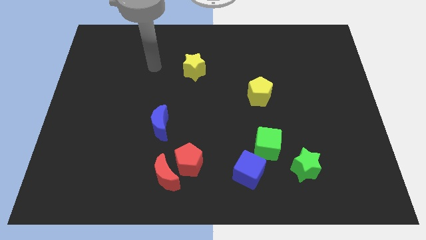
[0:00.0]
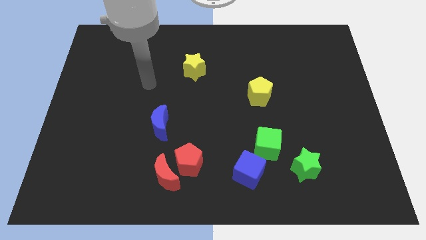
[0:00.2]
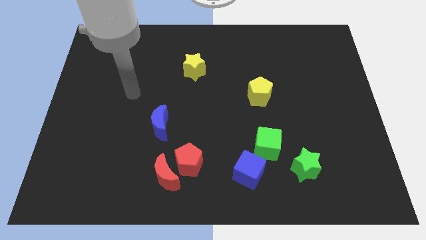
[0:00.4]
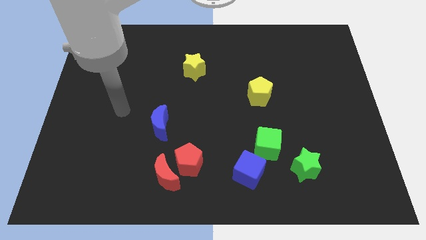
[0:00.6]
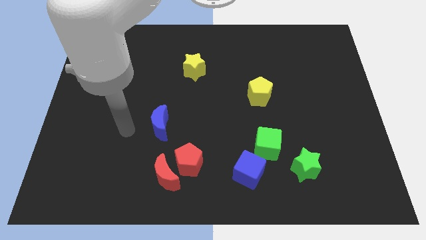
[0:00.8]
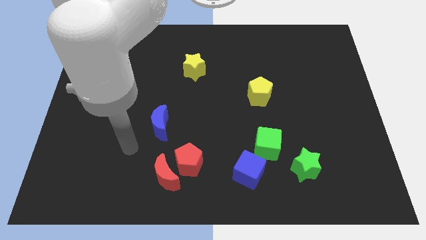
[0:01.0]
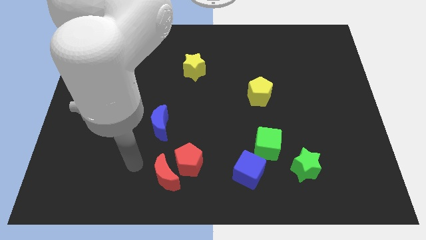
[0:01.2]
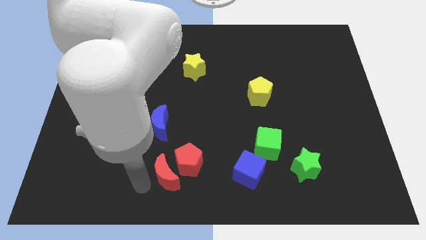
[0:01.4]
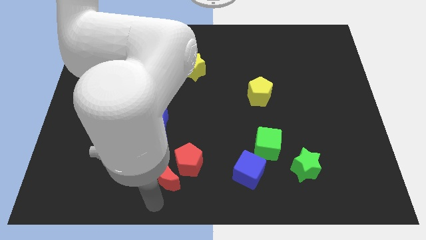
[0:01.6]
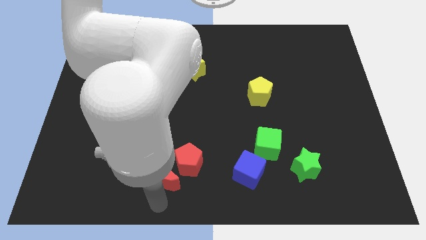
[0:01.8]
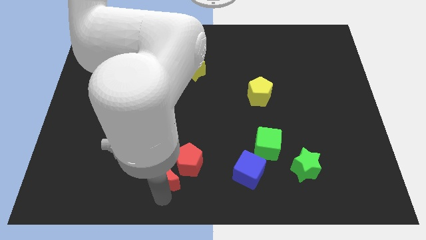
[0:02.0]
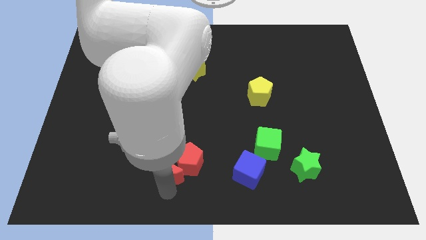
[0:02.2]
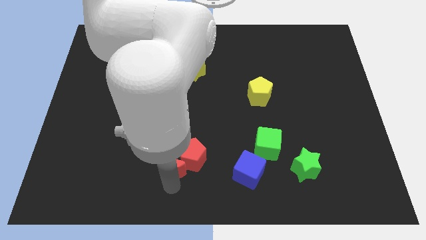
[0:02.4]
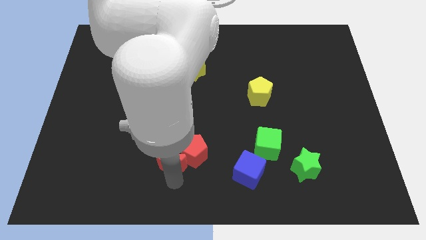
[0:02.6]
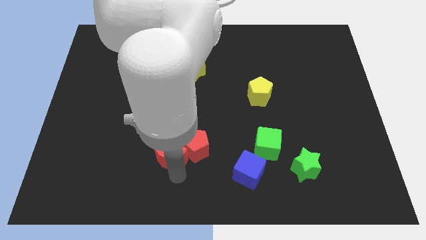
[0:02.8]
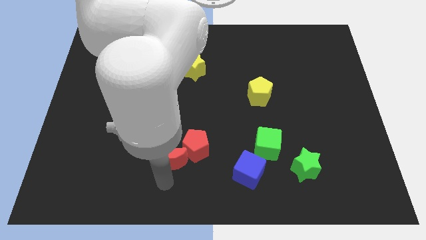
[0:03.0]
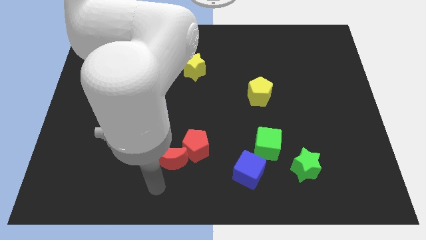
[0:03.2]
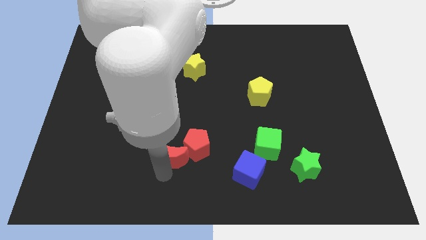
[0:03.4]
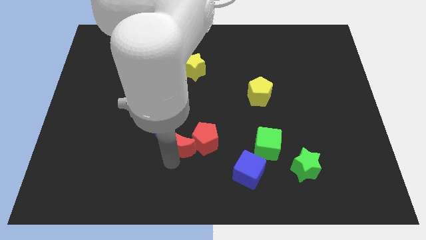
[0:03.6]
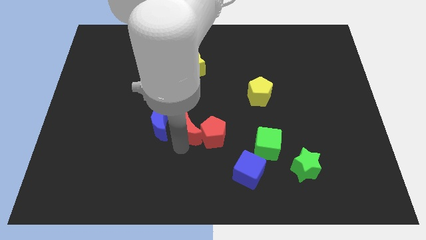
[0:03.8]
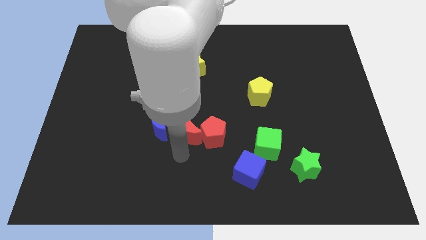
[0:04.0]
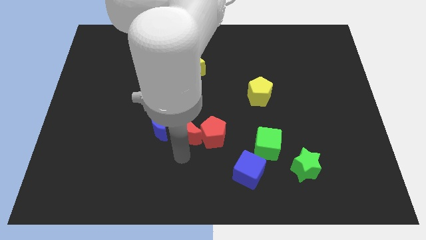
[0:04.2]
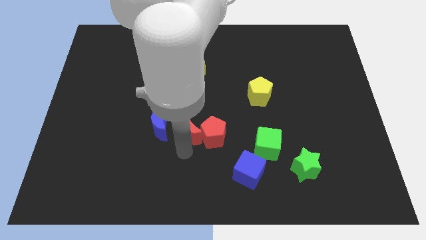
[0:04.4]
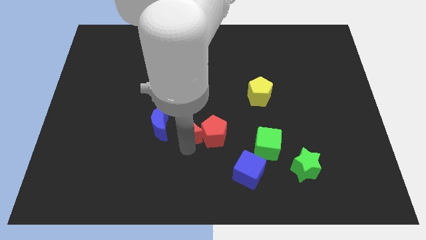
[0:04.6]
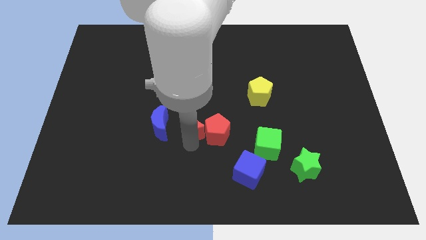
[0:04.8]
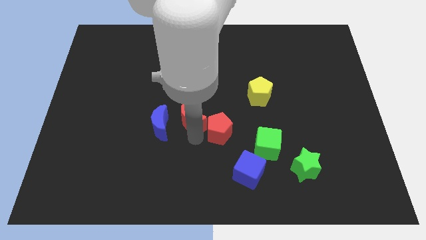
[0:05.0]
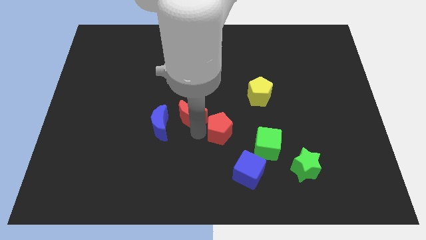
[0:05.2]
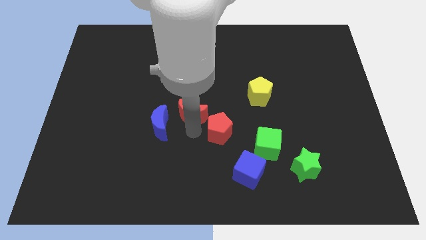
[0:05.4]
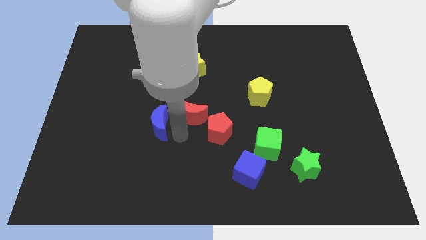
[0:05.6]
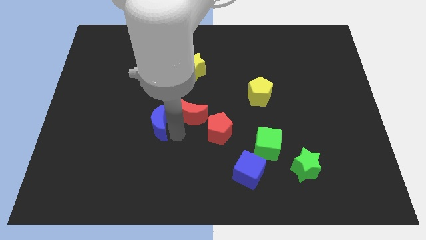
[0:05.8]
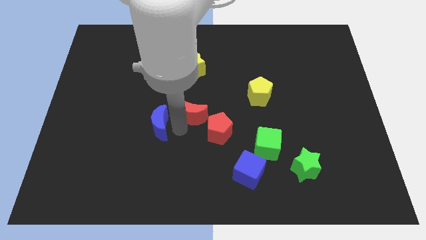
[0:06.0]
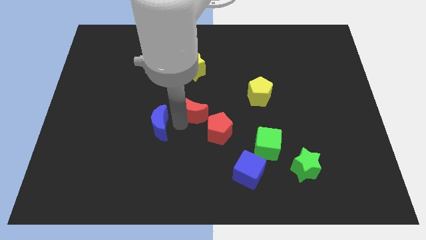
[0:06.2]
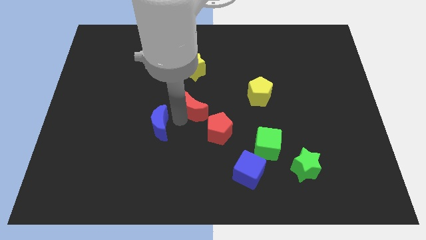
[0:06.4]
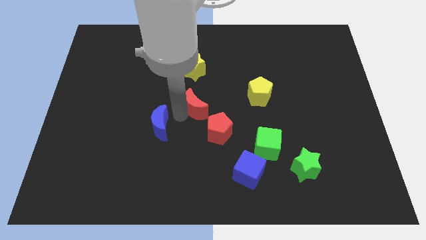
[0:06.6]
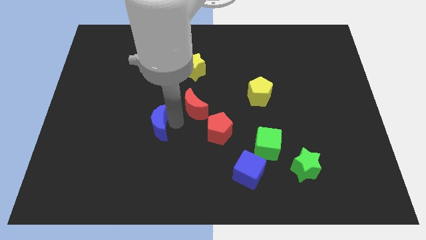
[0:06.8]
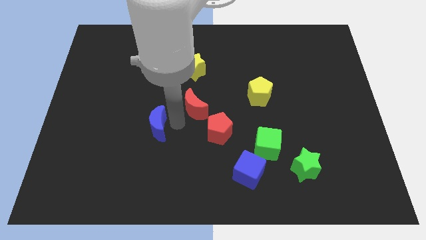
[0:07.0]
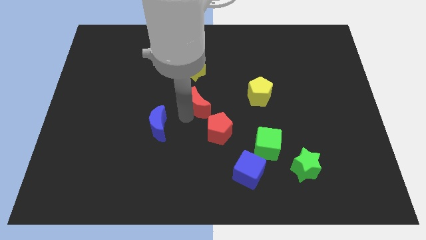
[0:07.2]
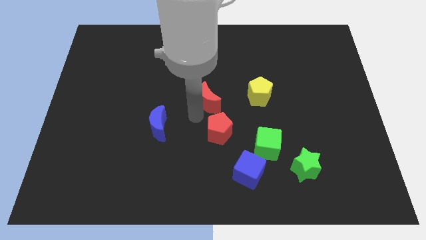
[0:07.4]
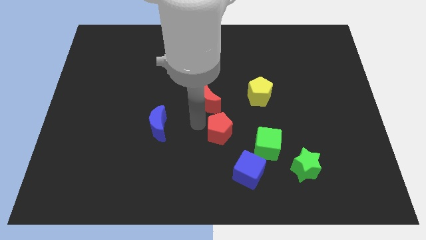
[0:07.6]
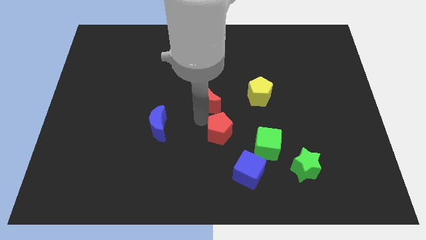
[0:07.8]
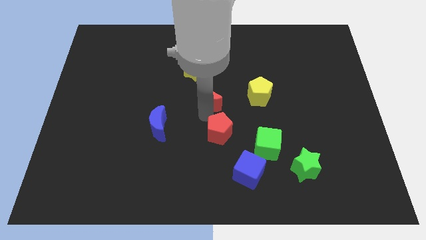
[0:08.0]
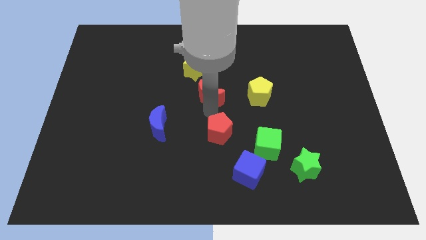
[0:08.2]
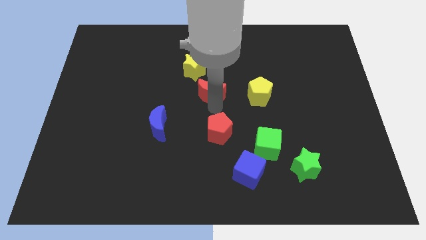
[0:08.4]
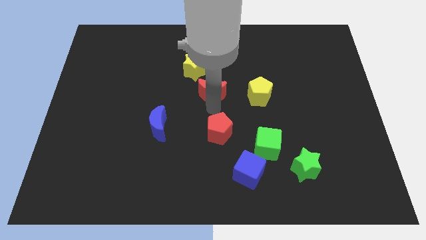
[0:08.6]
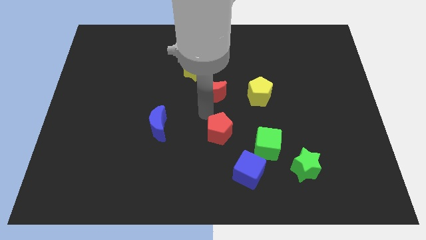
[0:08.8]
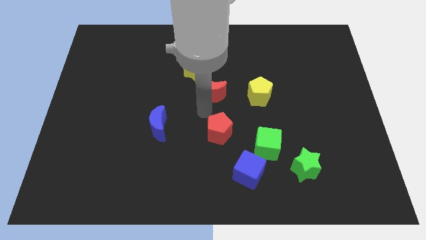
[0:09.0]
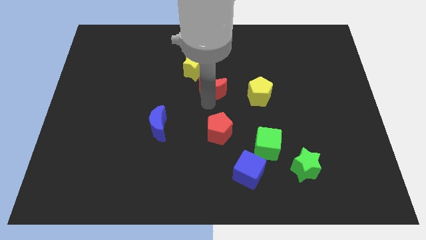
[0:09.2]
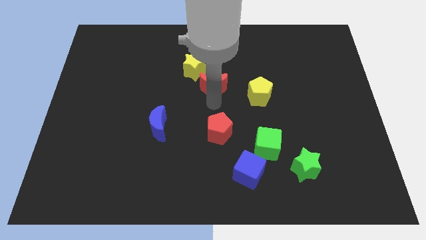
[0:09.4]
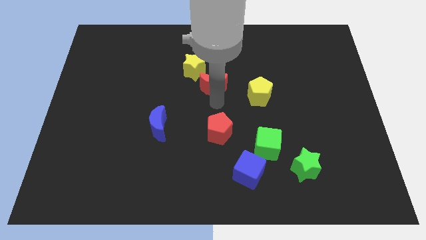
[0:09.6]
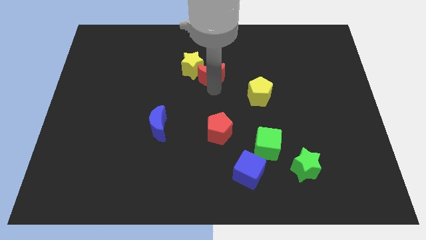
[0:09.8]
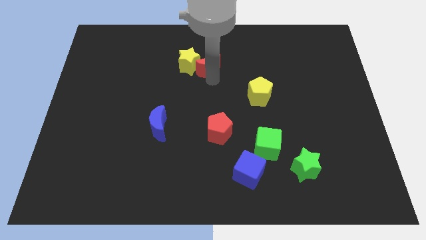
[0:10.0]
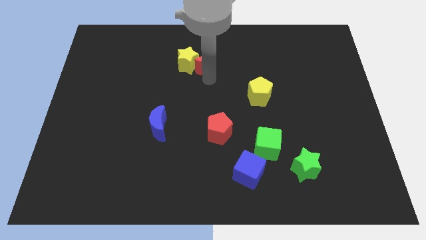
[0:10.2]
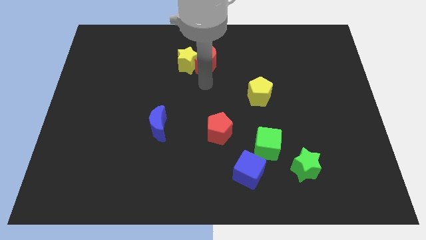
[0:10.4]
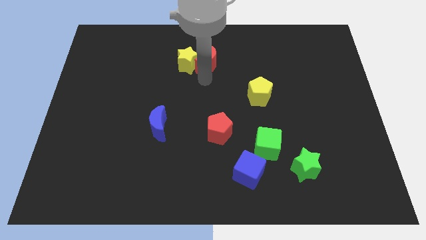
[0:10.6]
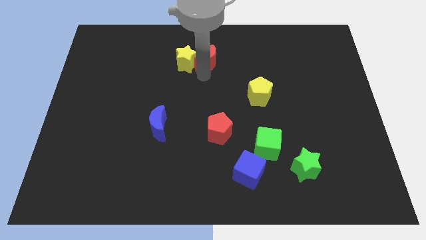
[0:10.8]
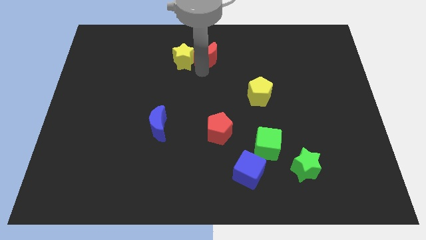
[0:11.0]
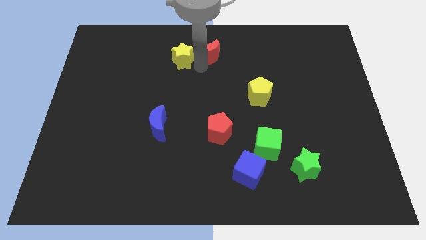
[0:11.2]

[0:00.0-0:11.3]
put the red moon to the top

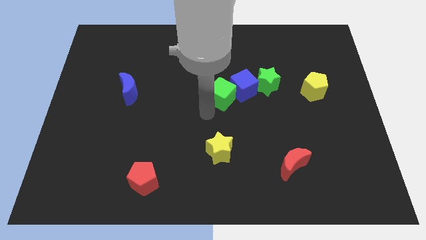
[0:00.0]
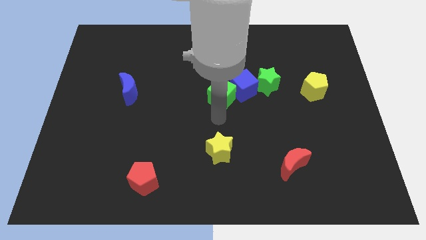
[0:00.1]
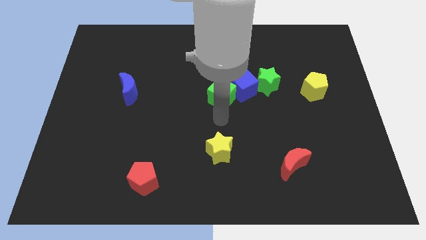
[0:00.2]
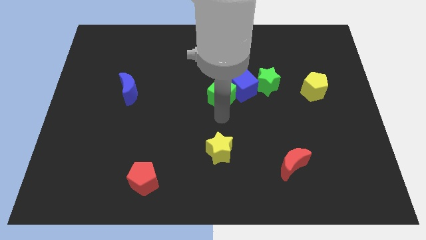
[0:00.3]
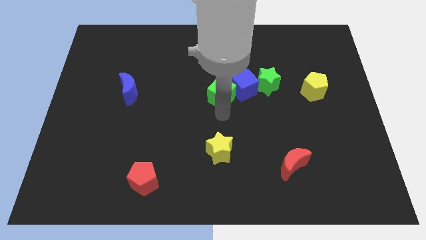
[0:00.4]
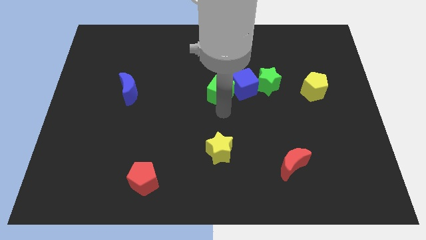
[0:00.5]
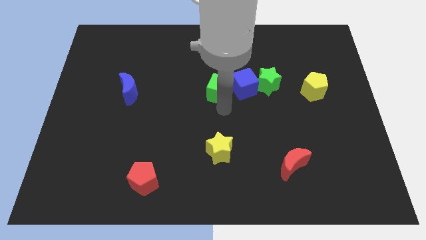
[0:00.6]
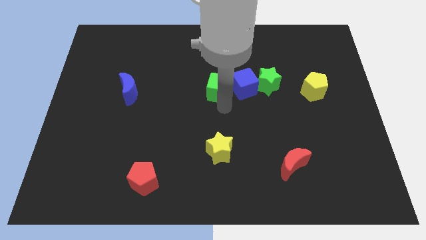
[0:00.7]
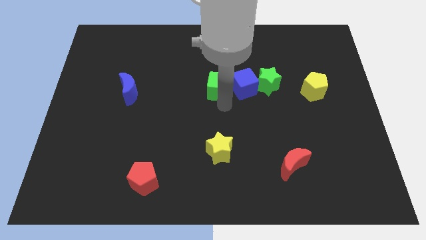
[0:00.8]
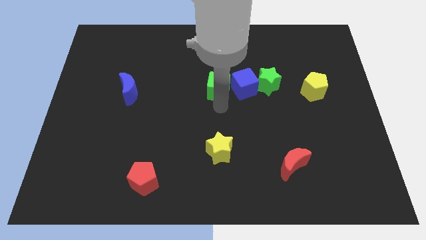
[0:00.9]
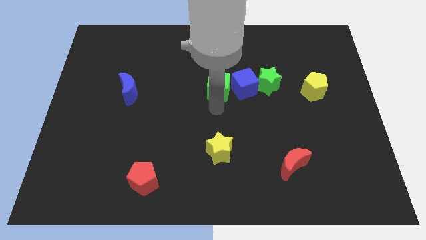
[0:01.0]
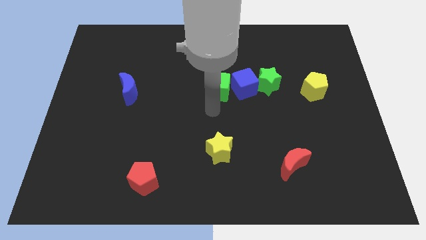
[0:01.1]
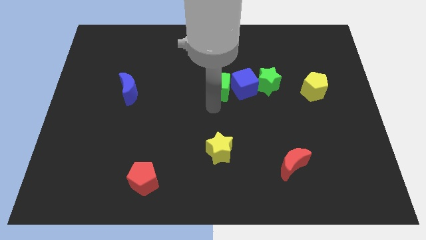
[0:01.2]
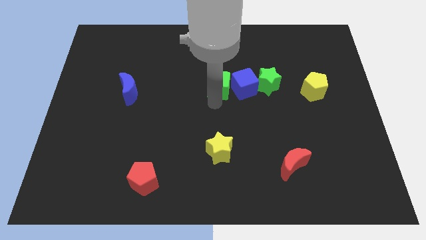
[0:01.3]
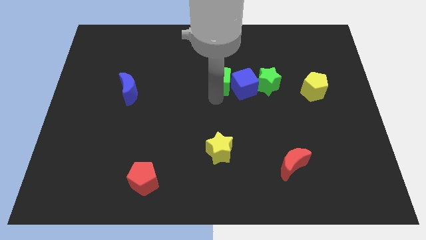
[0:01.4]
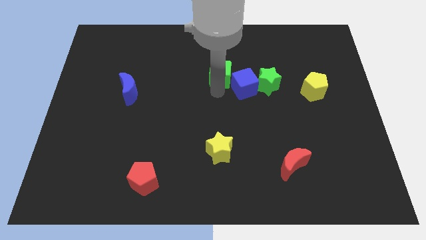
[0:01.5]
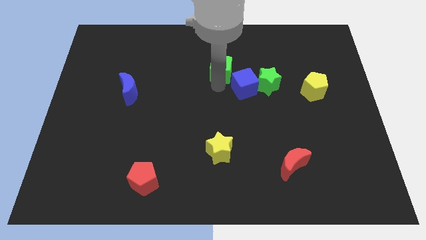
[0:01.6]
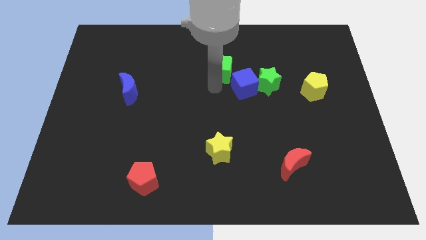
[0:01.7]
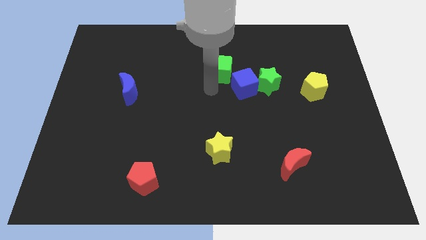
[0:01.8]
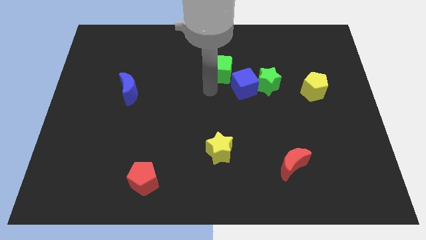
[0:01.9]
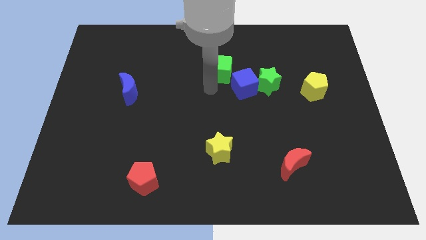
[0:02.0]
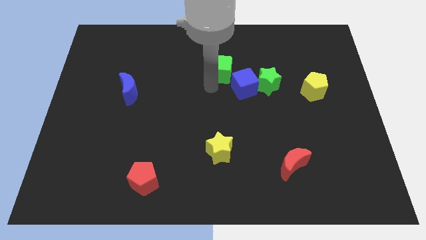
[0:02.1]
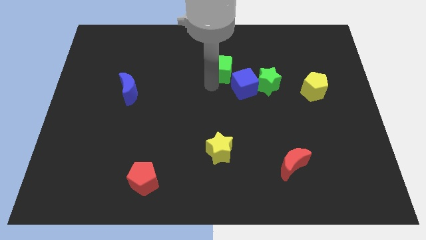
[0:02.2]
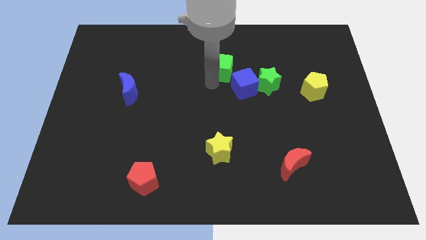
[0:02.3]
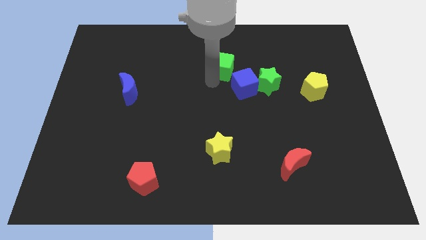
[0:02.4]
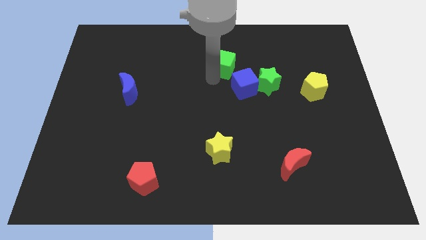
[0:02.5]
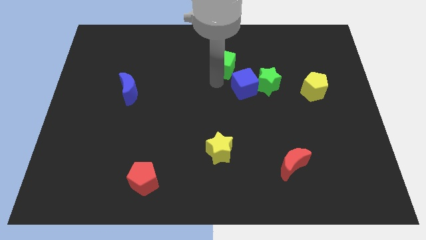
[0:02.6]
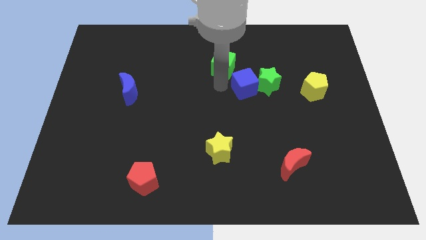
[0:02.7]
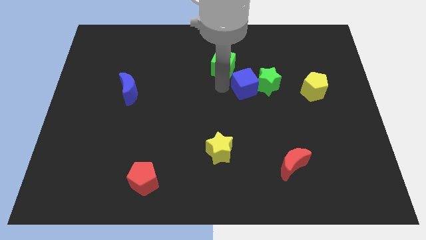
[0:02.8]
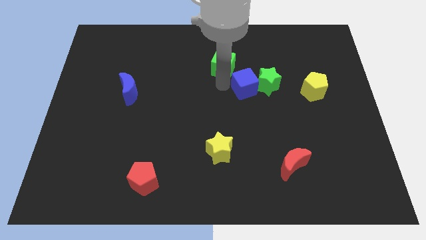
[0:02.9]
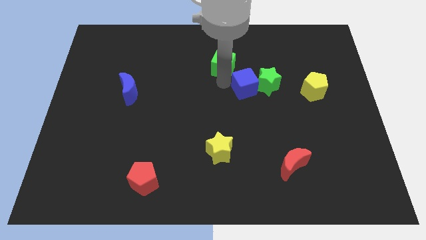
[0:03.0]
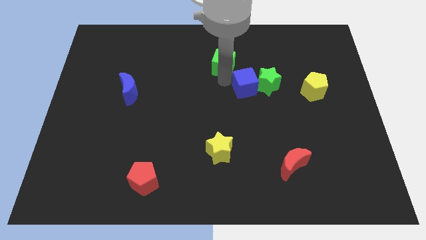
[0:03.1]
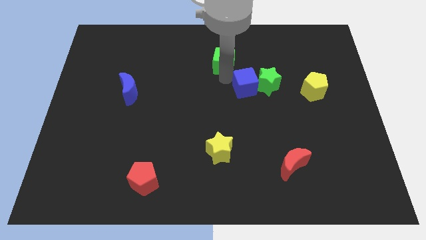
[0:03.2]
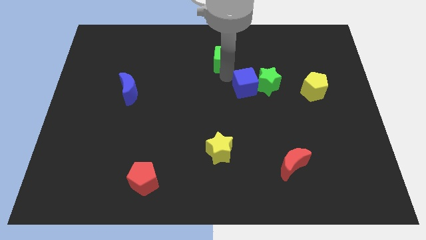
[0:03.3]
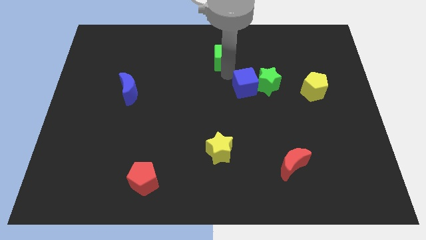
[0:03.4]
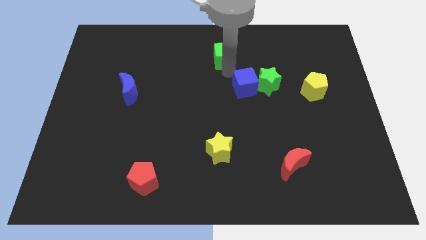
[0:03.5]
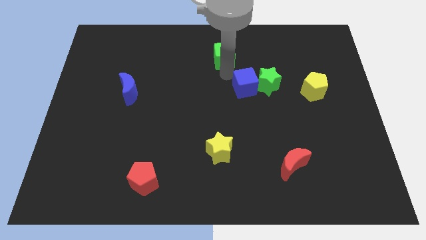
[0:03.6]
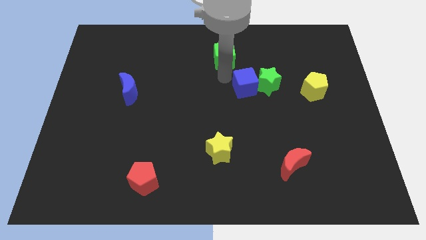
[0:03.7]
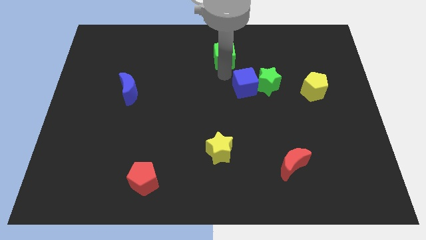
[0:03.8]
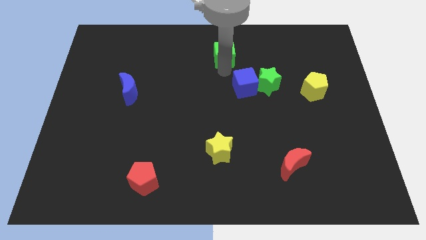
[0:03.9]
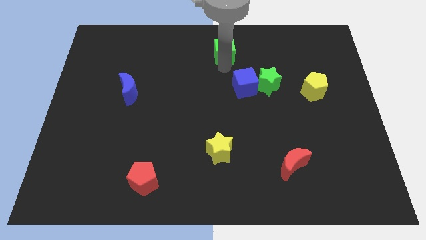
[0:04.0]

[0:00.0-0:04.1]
push the green cube to the top
